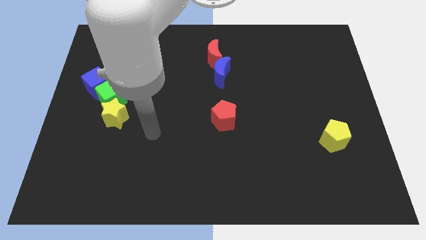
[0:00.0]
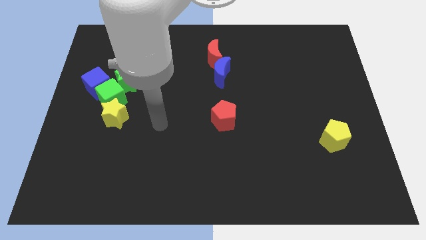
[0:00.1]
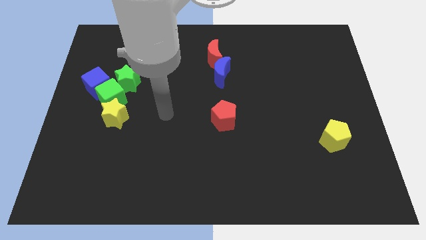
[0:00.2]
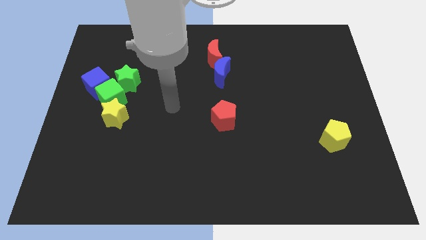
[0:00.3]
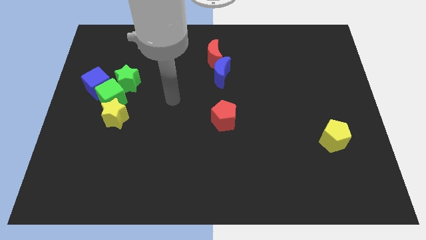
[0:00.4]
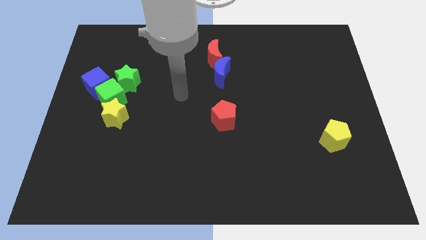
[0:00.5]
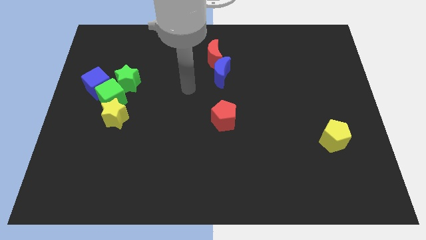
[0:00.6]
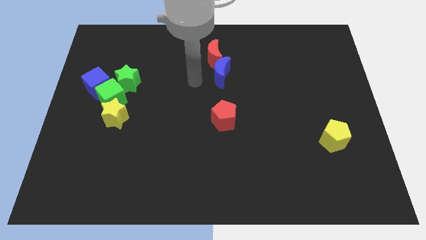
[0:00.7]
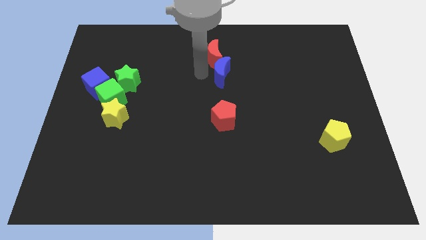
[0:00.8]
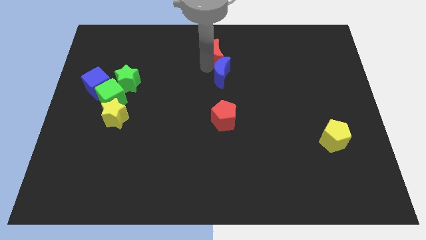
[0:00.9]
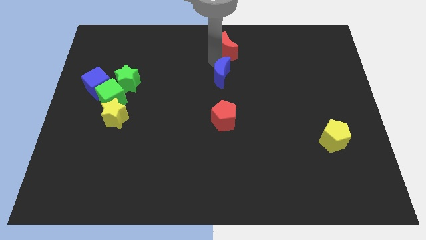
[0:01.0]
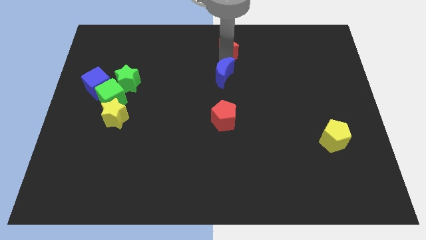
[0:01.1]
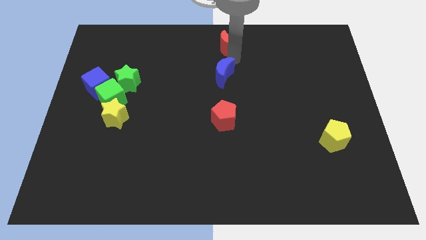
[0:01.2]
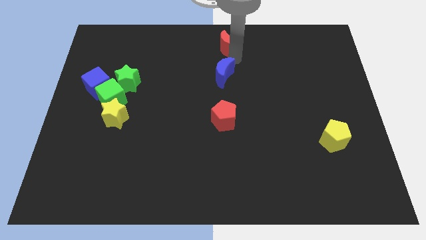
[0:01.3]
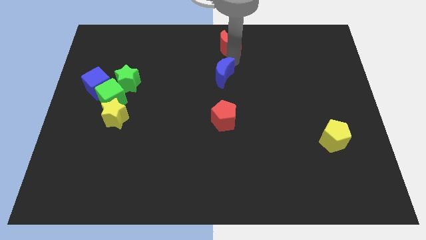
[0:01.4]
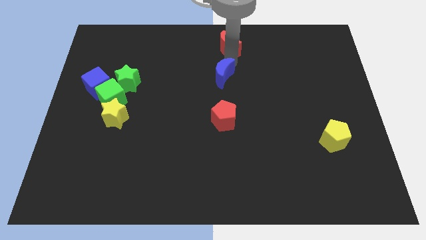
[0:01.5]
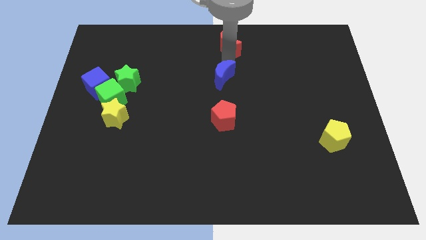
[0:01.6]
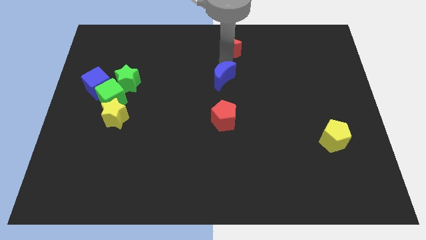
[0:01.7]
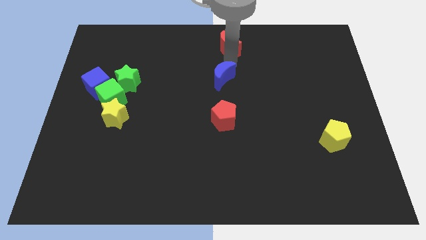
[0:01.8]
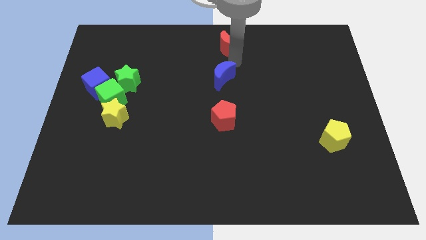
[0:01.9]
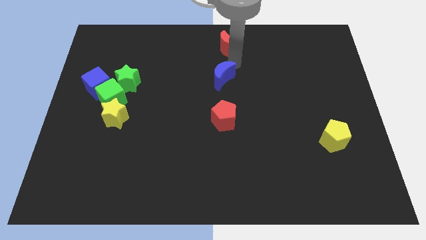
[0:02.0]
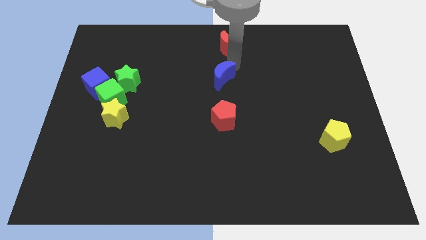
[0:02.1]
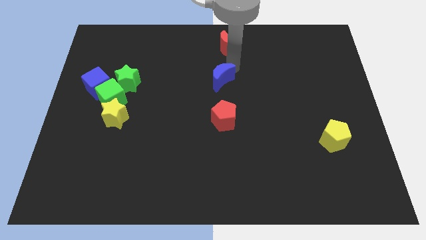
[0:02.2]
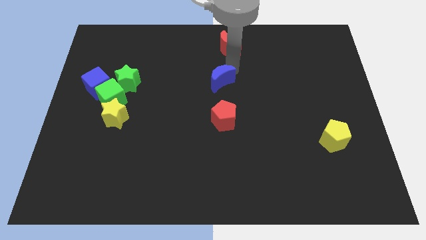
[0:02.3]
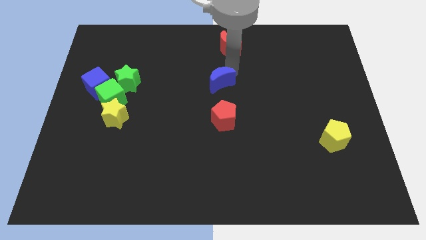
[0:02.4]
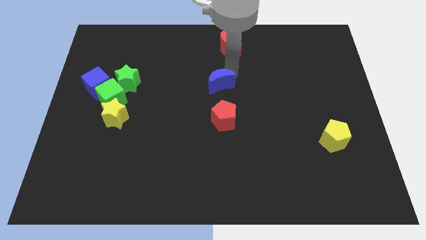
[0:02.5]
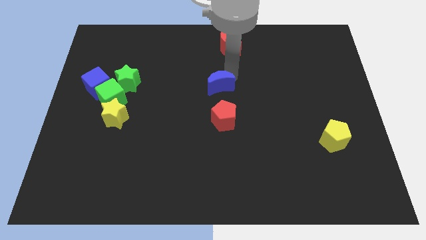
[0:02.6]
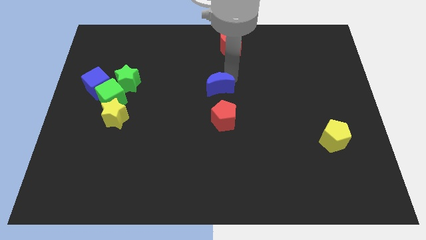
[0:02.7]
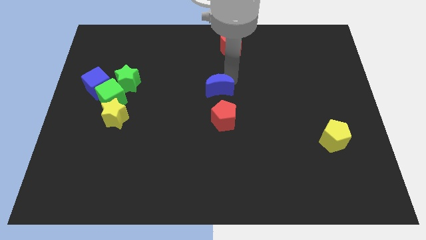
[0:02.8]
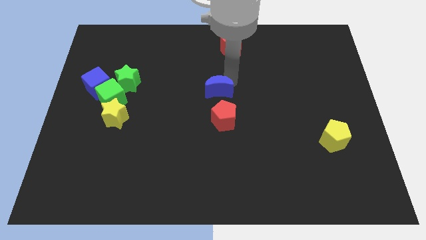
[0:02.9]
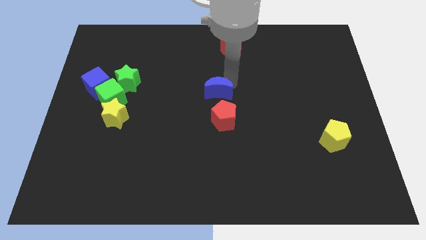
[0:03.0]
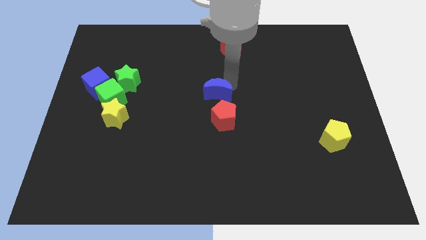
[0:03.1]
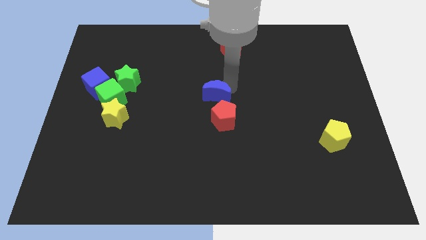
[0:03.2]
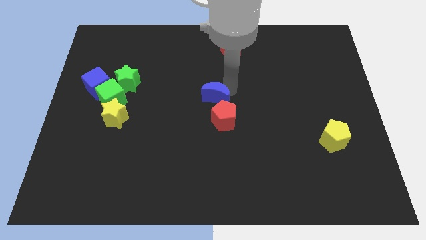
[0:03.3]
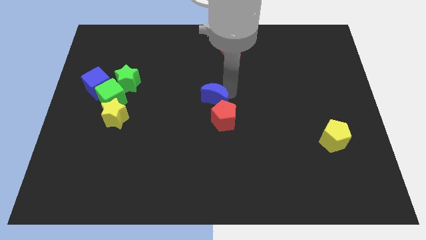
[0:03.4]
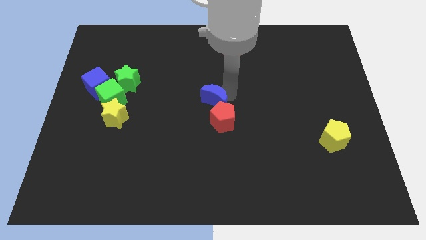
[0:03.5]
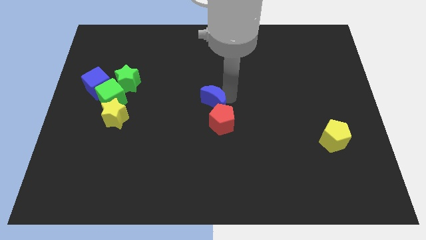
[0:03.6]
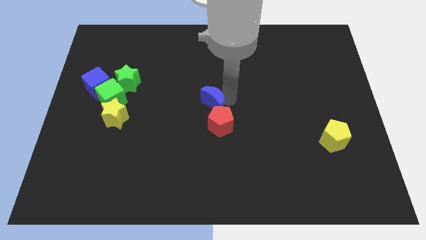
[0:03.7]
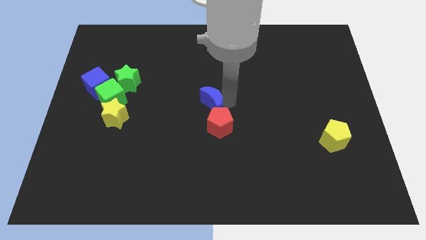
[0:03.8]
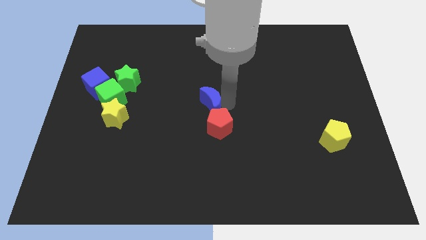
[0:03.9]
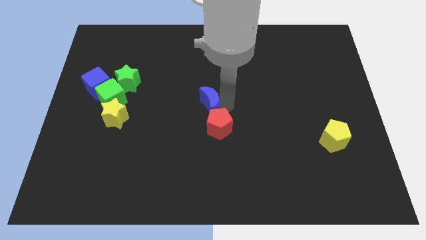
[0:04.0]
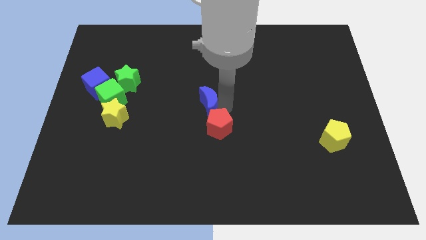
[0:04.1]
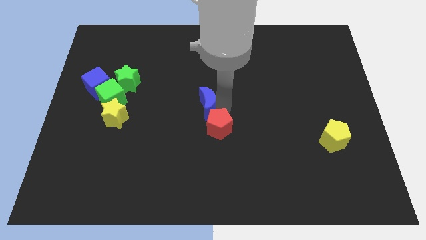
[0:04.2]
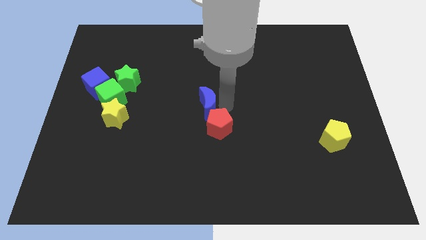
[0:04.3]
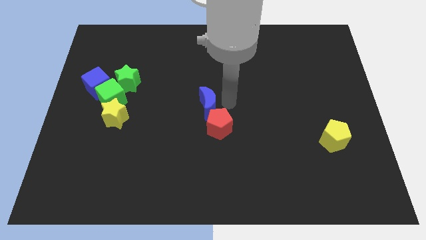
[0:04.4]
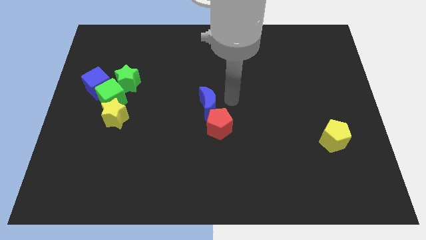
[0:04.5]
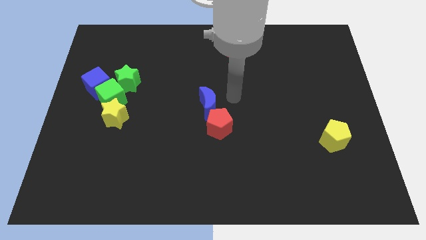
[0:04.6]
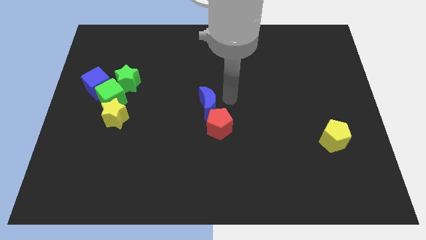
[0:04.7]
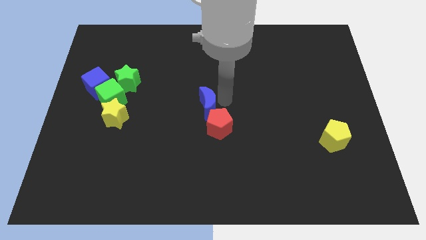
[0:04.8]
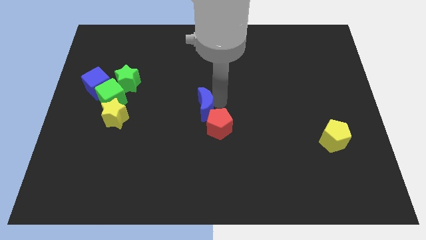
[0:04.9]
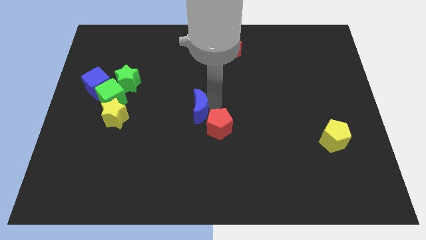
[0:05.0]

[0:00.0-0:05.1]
move the blue moon left of the red pentagon

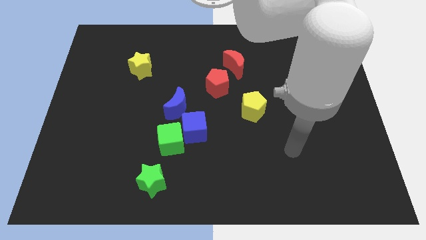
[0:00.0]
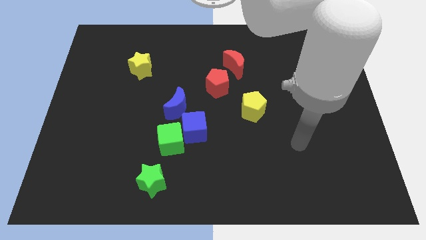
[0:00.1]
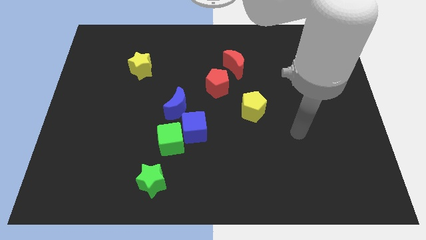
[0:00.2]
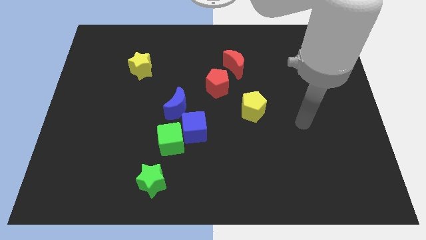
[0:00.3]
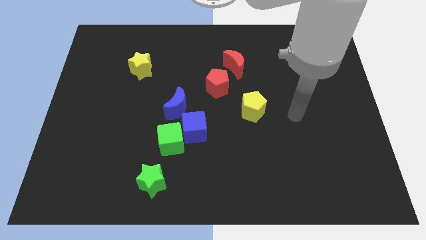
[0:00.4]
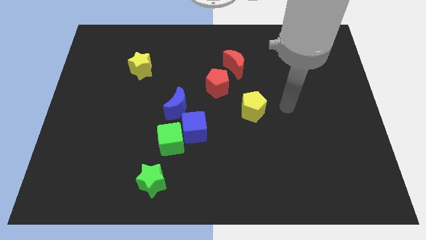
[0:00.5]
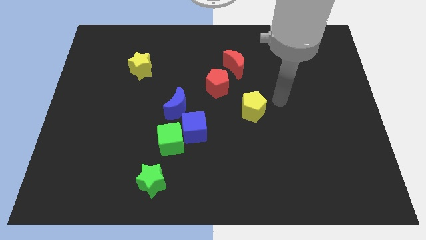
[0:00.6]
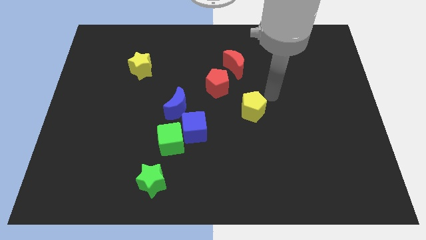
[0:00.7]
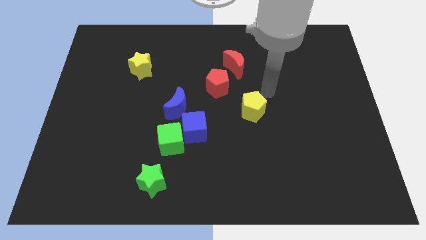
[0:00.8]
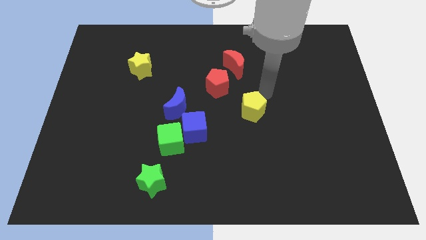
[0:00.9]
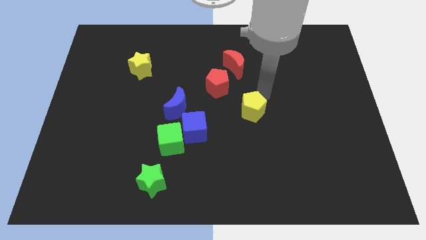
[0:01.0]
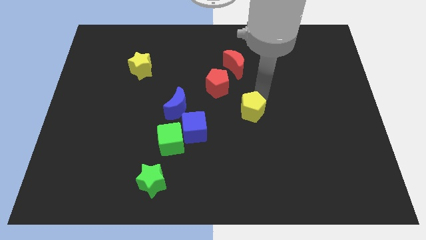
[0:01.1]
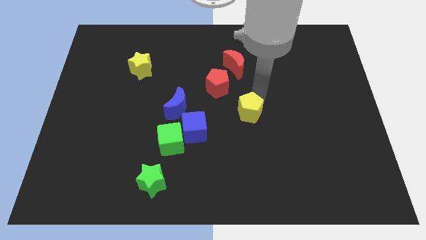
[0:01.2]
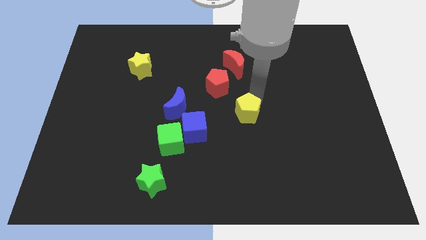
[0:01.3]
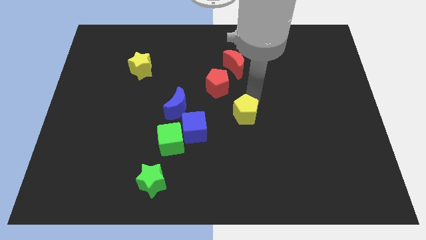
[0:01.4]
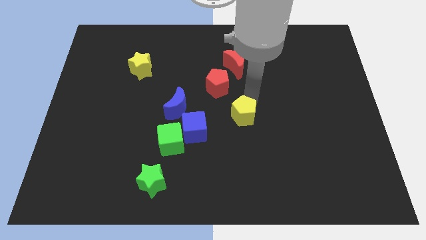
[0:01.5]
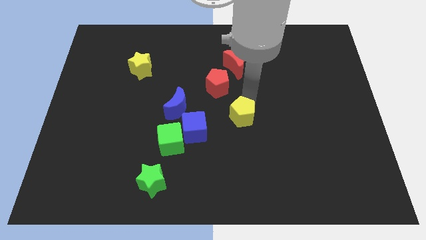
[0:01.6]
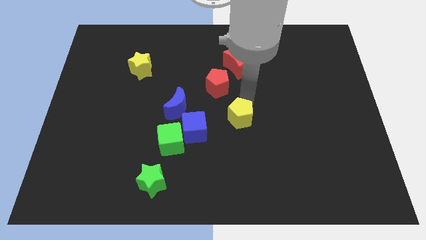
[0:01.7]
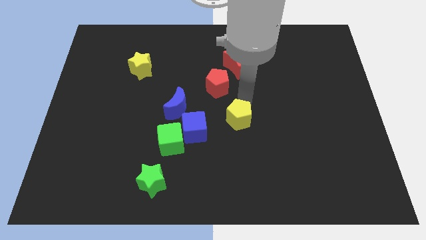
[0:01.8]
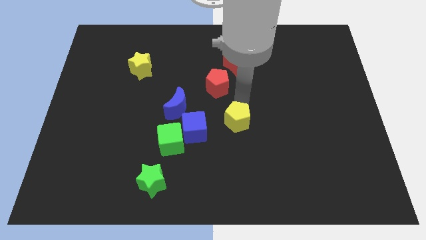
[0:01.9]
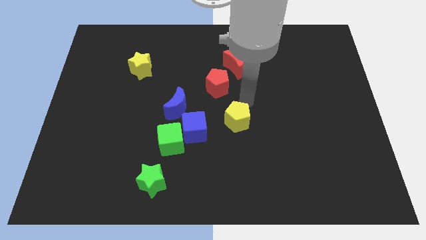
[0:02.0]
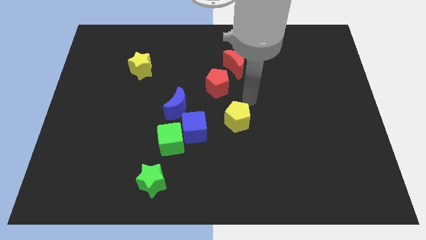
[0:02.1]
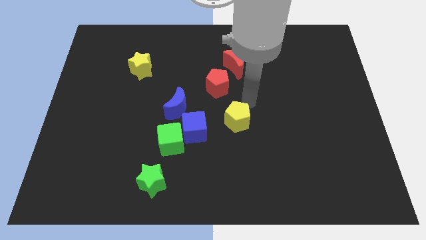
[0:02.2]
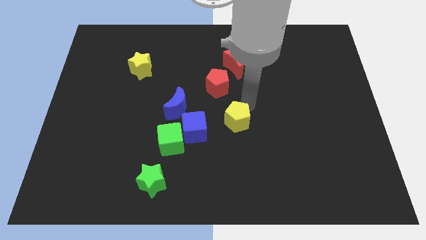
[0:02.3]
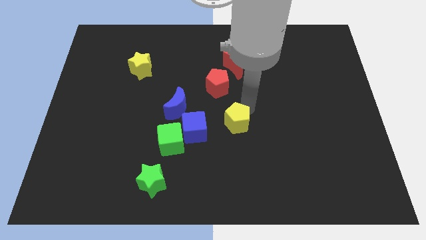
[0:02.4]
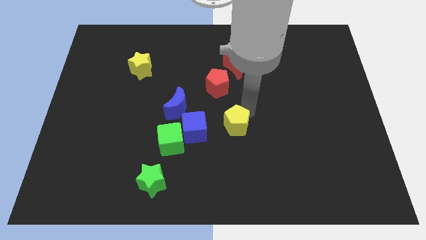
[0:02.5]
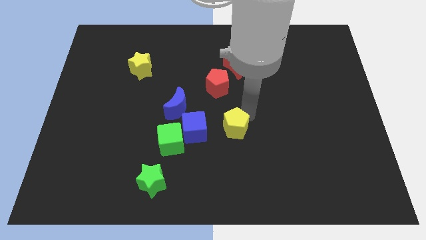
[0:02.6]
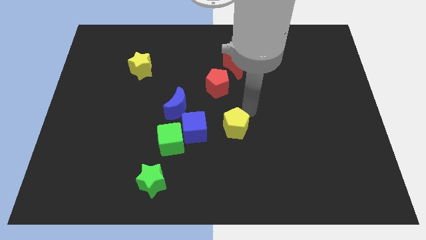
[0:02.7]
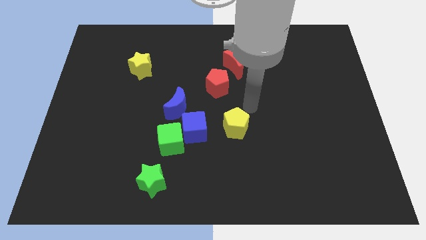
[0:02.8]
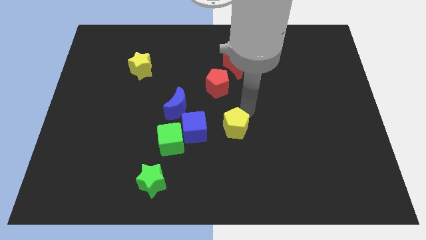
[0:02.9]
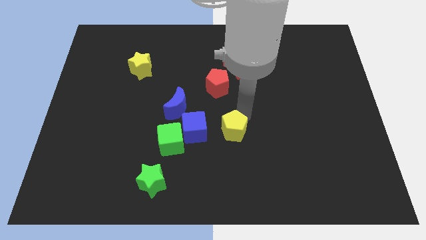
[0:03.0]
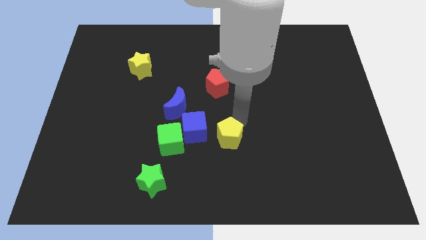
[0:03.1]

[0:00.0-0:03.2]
push the yellow pentagon diagonally down and to the right of the blue cube
